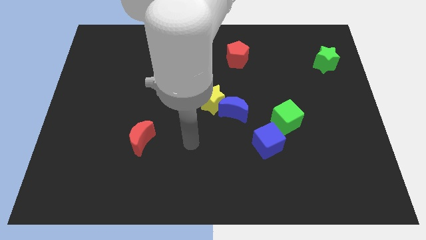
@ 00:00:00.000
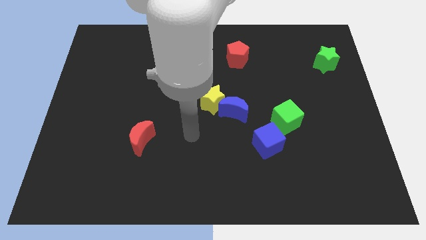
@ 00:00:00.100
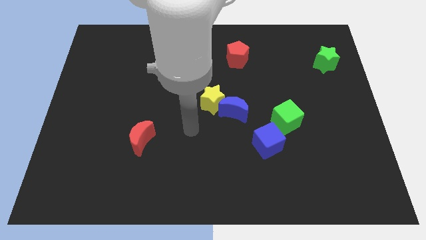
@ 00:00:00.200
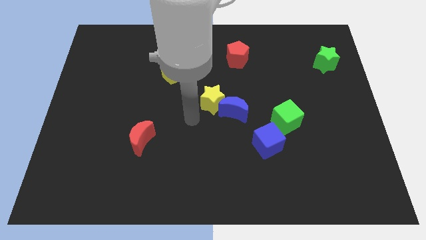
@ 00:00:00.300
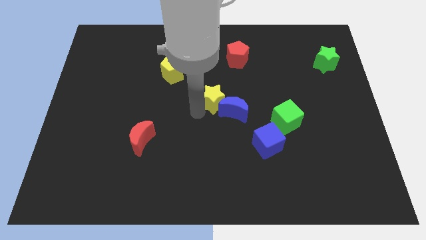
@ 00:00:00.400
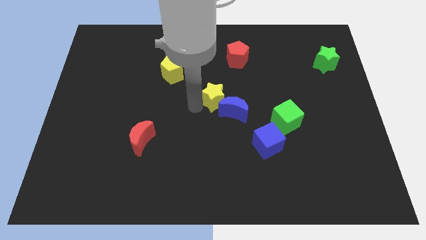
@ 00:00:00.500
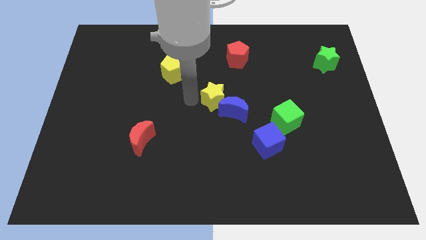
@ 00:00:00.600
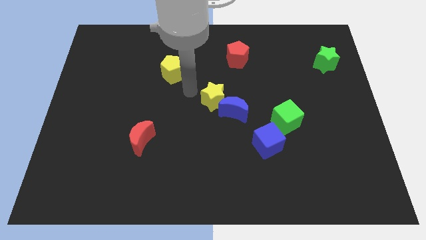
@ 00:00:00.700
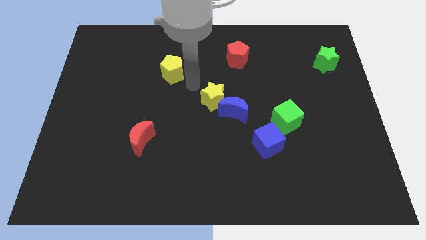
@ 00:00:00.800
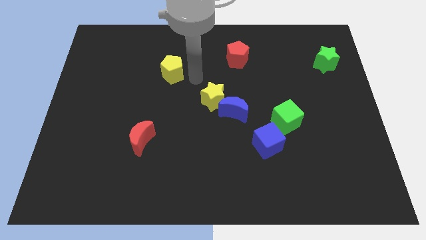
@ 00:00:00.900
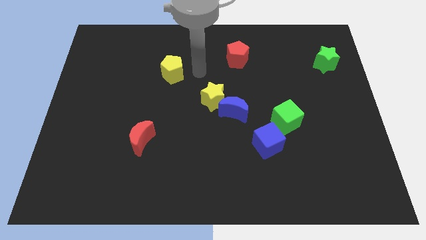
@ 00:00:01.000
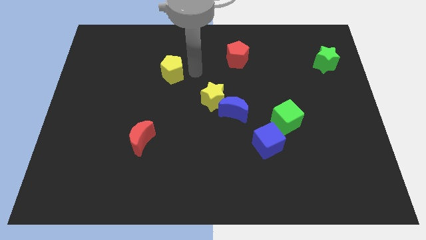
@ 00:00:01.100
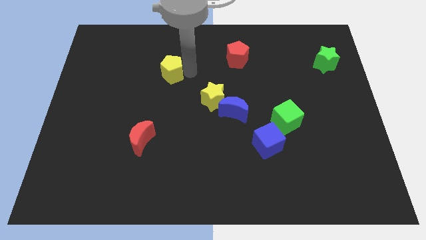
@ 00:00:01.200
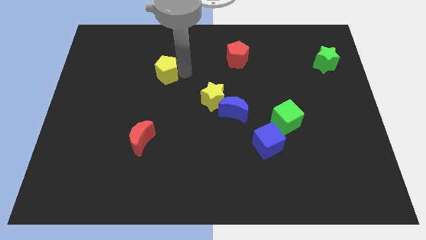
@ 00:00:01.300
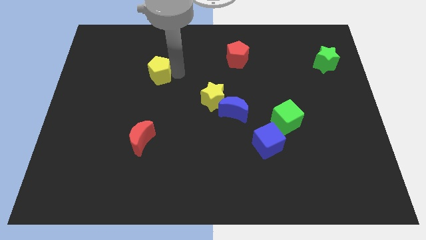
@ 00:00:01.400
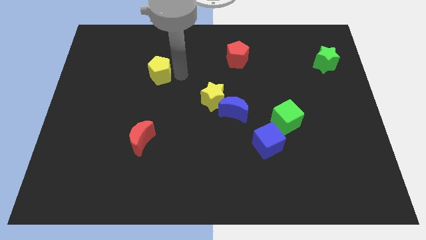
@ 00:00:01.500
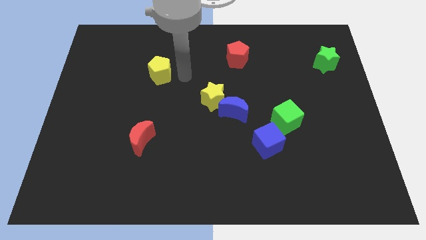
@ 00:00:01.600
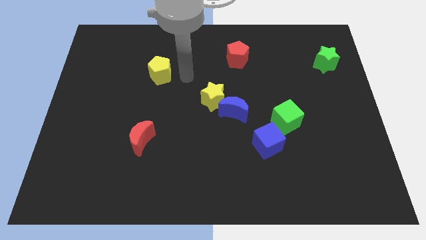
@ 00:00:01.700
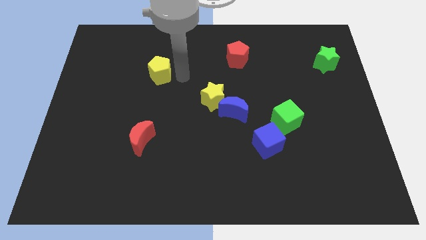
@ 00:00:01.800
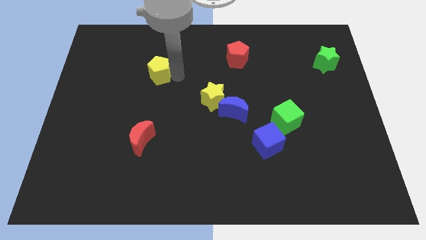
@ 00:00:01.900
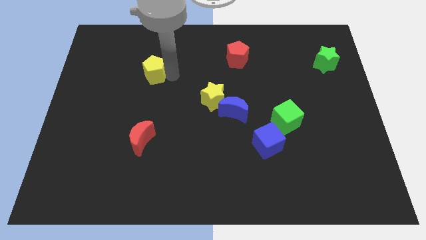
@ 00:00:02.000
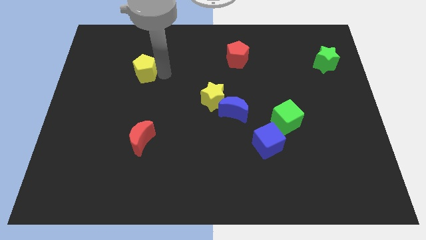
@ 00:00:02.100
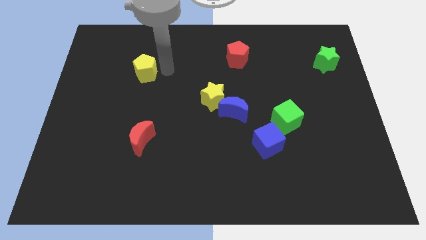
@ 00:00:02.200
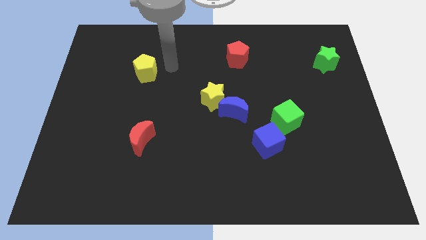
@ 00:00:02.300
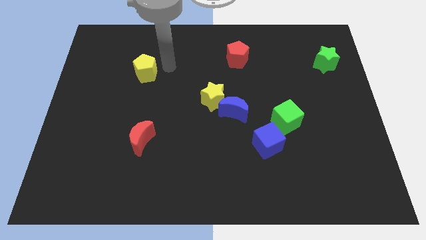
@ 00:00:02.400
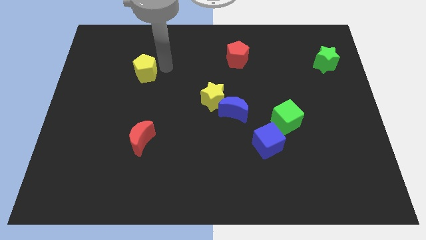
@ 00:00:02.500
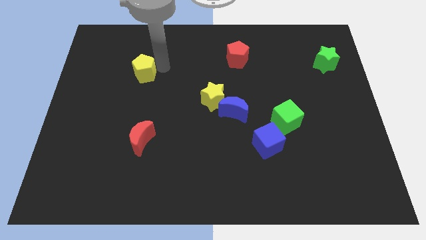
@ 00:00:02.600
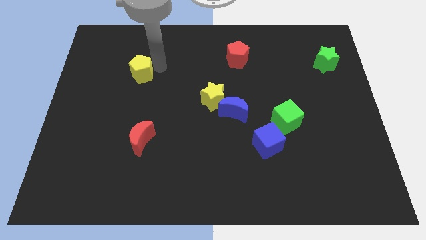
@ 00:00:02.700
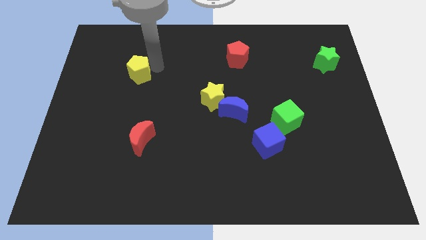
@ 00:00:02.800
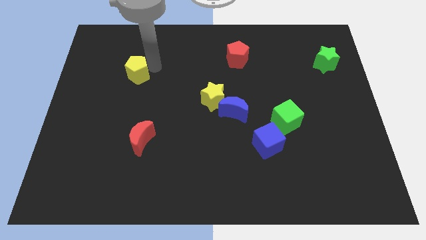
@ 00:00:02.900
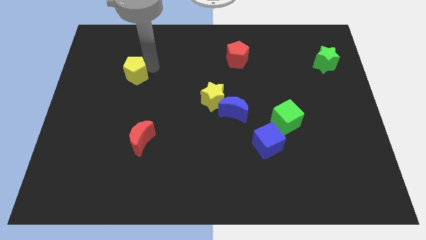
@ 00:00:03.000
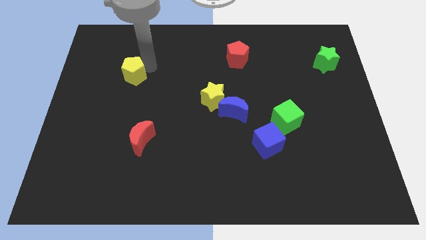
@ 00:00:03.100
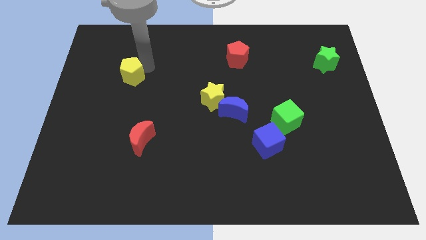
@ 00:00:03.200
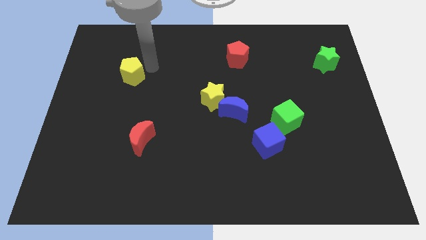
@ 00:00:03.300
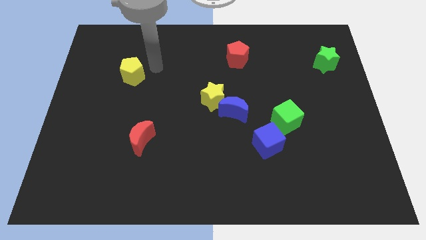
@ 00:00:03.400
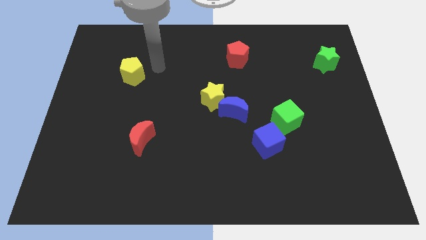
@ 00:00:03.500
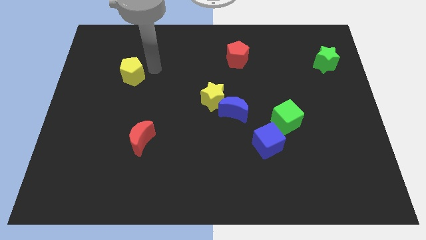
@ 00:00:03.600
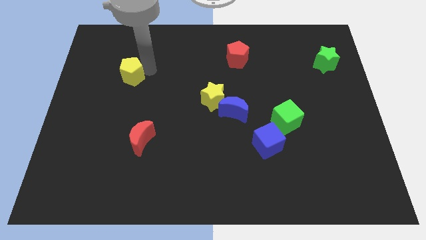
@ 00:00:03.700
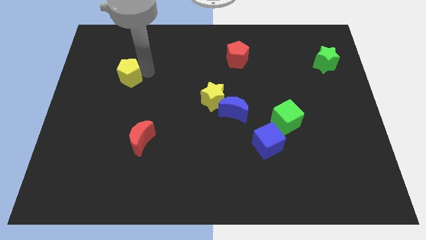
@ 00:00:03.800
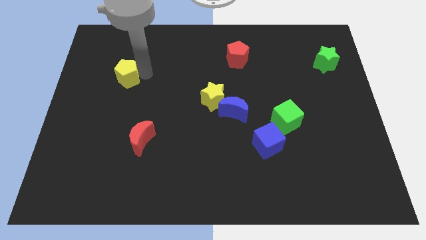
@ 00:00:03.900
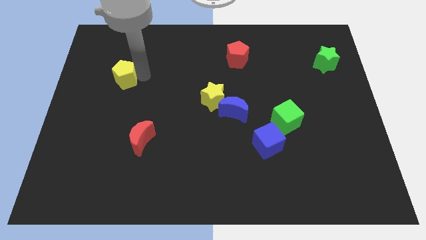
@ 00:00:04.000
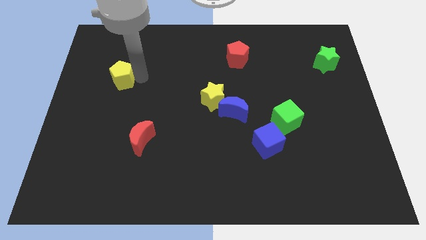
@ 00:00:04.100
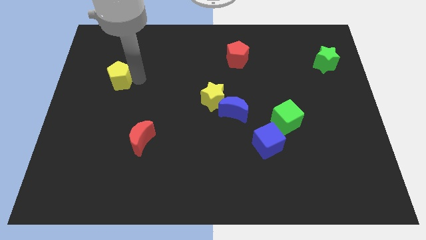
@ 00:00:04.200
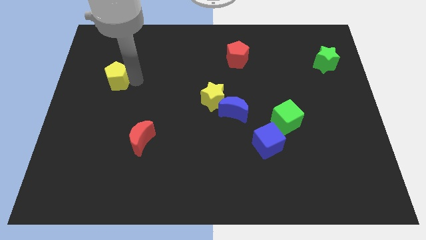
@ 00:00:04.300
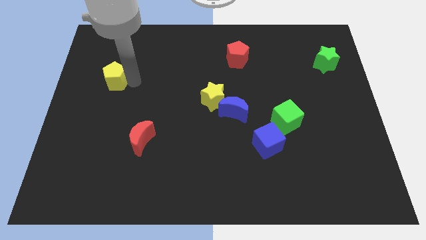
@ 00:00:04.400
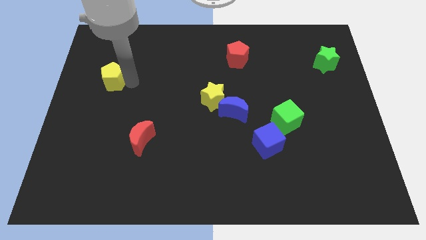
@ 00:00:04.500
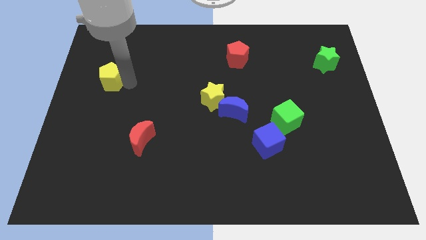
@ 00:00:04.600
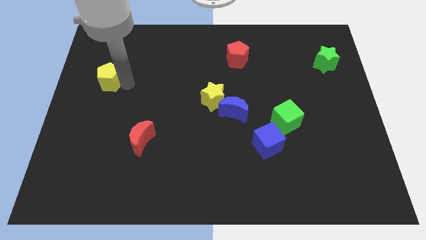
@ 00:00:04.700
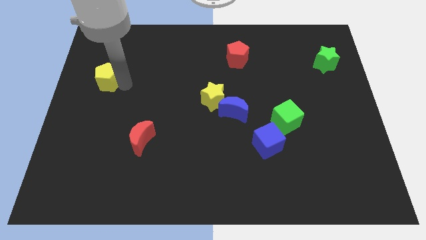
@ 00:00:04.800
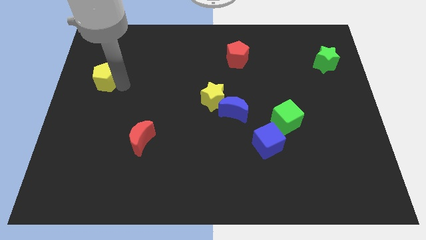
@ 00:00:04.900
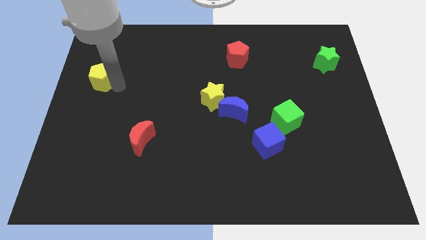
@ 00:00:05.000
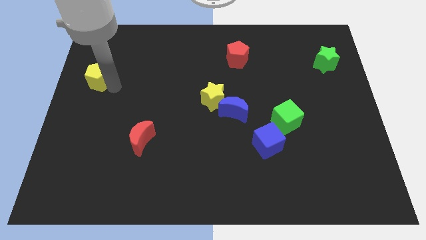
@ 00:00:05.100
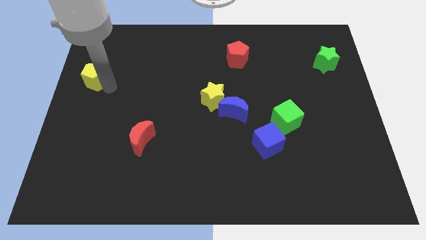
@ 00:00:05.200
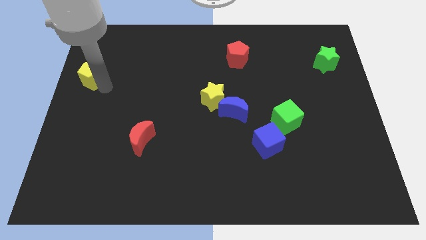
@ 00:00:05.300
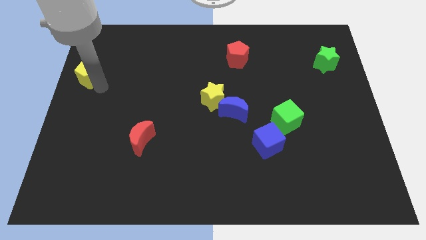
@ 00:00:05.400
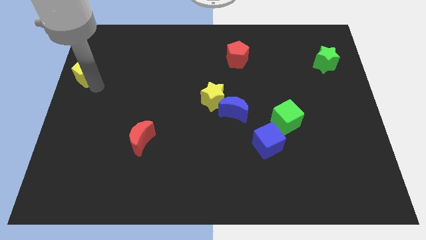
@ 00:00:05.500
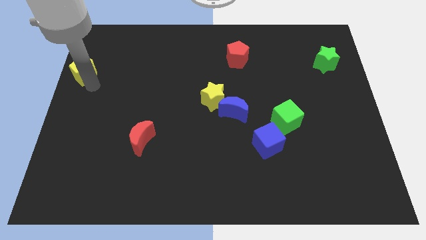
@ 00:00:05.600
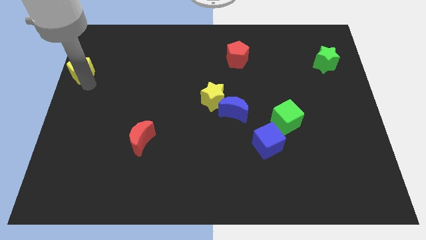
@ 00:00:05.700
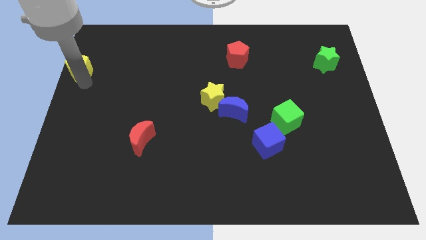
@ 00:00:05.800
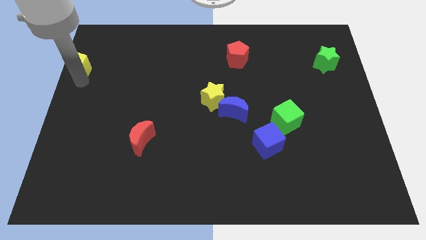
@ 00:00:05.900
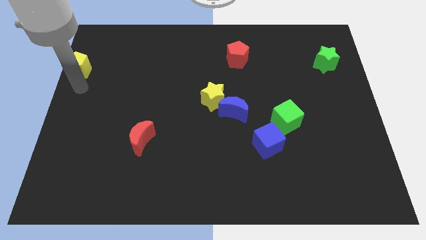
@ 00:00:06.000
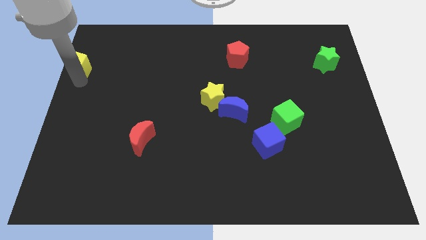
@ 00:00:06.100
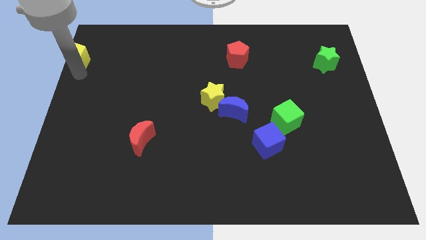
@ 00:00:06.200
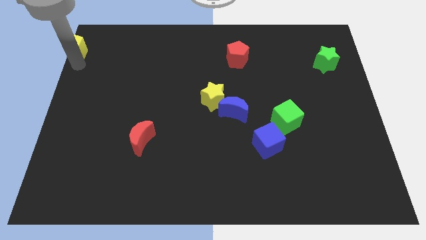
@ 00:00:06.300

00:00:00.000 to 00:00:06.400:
slide the yellow pentagon to the top left corner

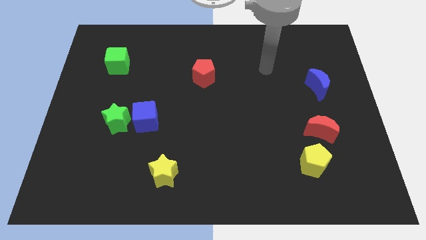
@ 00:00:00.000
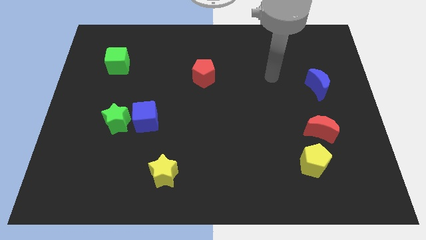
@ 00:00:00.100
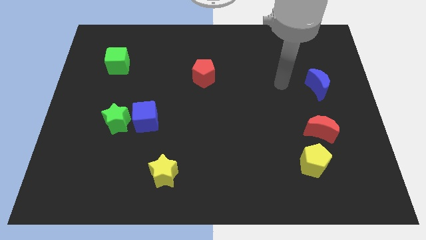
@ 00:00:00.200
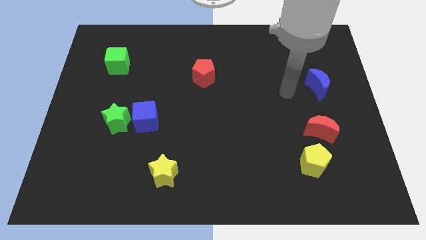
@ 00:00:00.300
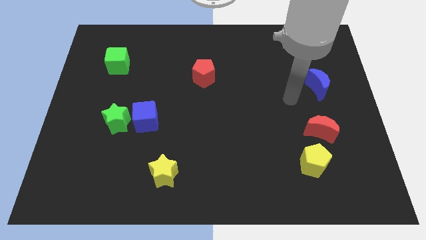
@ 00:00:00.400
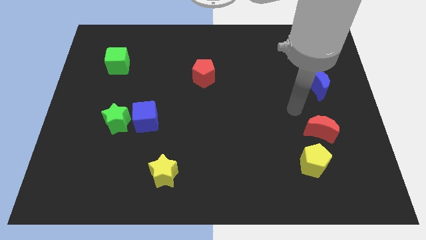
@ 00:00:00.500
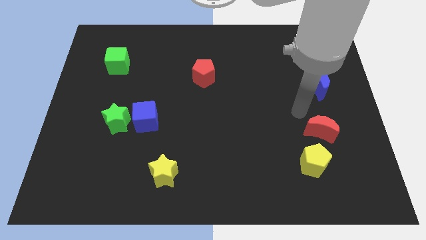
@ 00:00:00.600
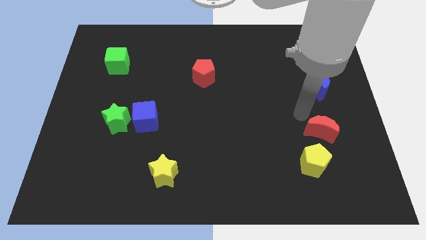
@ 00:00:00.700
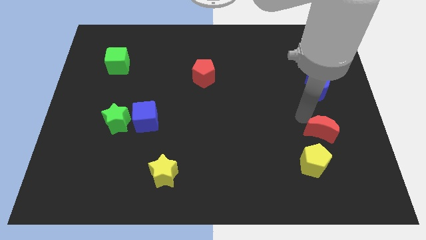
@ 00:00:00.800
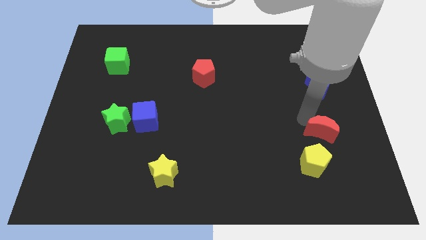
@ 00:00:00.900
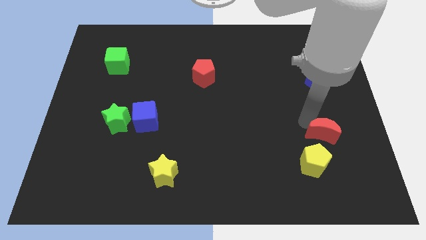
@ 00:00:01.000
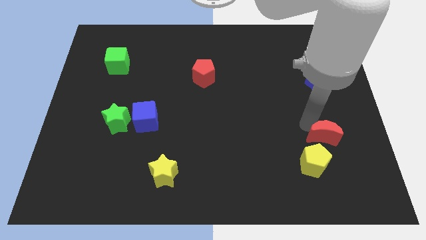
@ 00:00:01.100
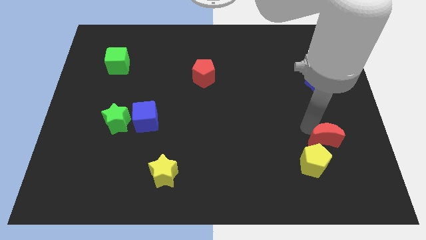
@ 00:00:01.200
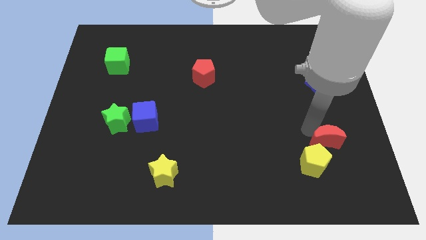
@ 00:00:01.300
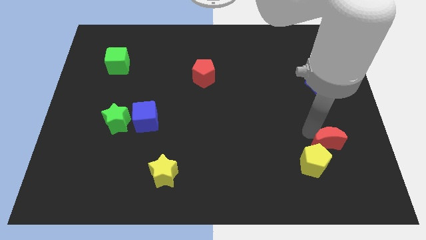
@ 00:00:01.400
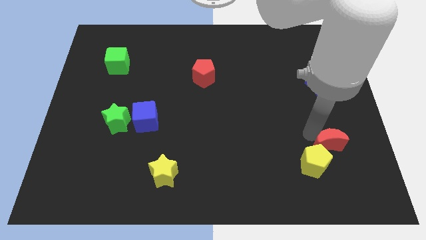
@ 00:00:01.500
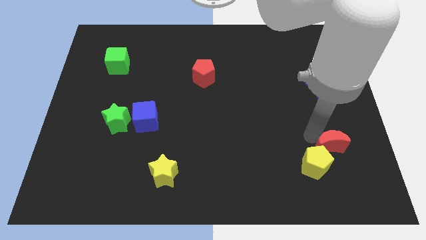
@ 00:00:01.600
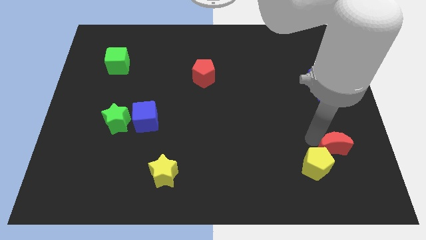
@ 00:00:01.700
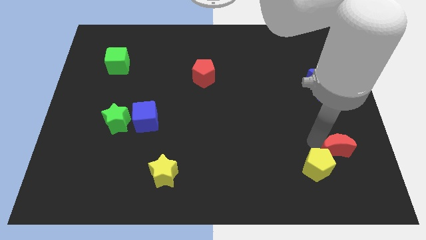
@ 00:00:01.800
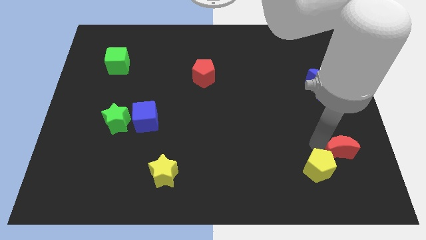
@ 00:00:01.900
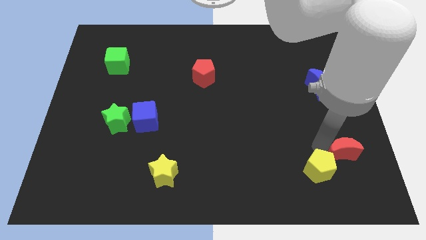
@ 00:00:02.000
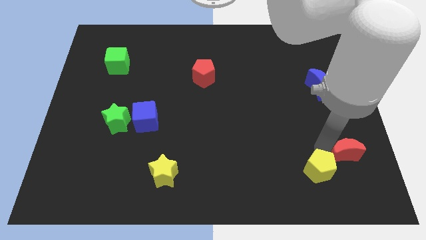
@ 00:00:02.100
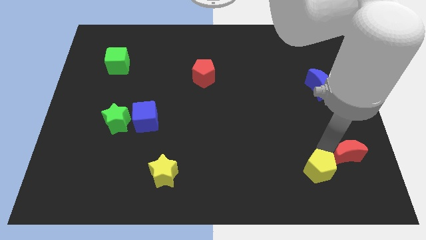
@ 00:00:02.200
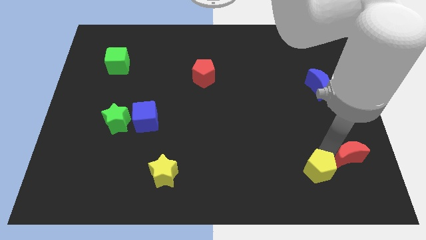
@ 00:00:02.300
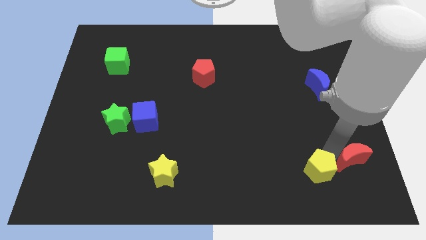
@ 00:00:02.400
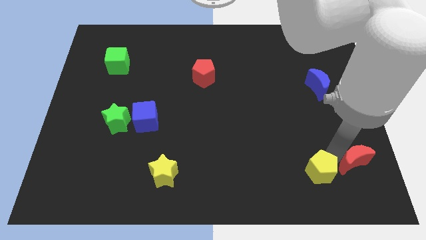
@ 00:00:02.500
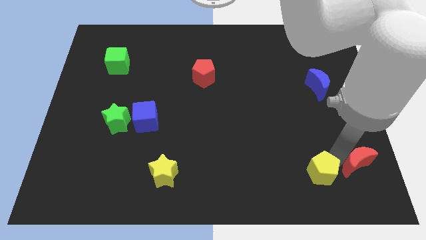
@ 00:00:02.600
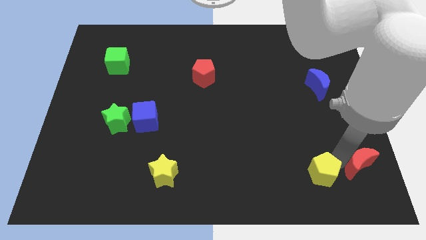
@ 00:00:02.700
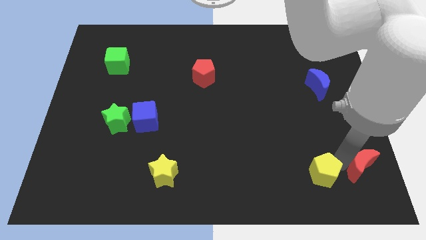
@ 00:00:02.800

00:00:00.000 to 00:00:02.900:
push the red moon to the bottom right of the board
